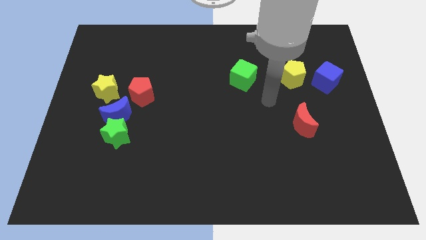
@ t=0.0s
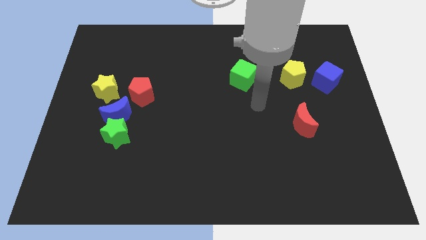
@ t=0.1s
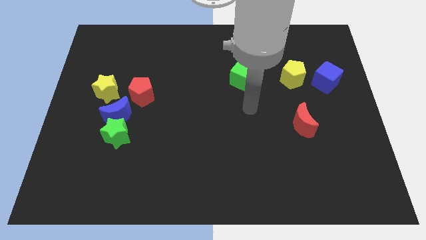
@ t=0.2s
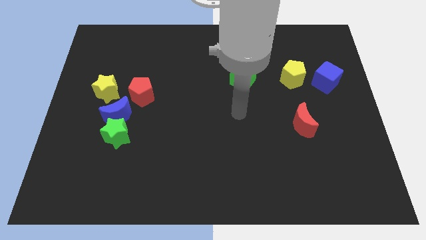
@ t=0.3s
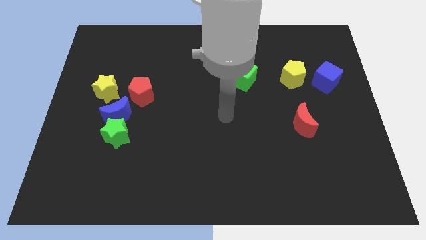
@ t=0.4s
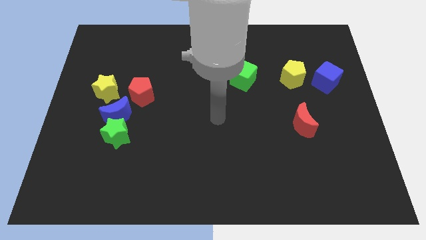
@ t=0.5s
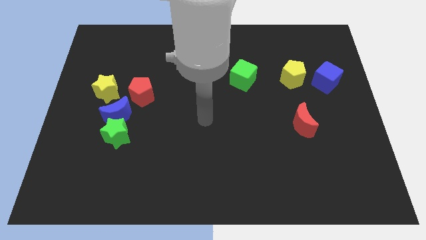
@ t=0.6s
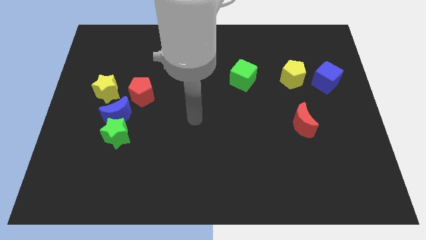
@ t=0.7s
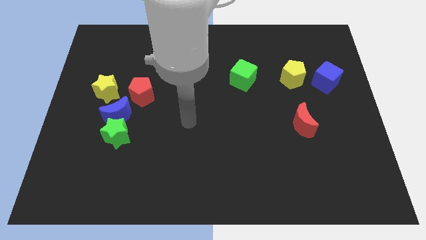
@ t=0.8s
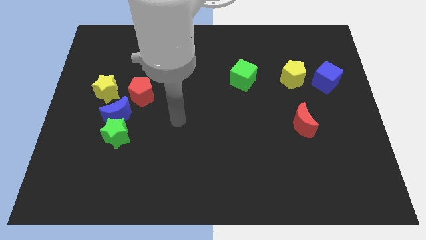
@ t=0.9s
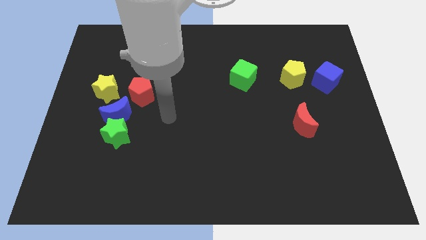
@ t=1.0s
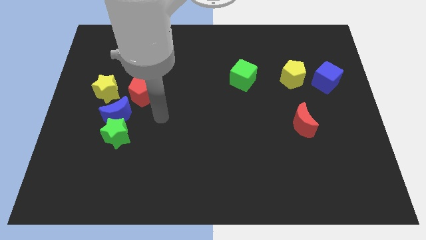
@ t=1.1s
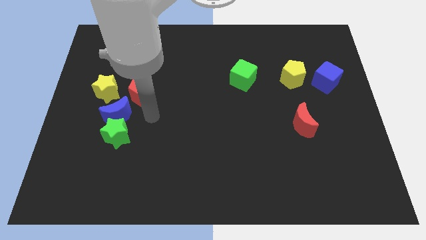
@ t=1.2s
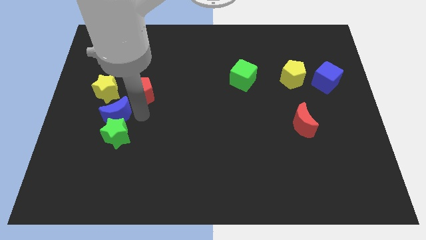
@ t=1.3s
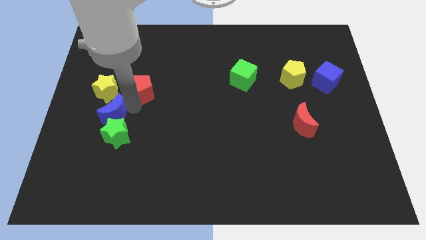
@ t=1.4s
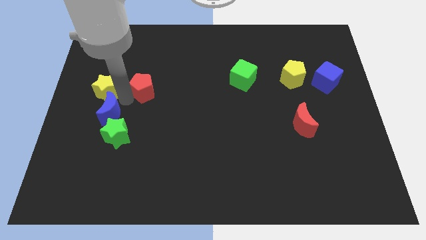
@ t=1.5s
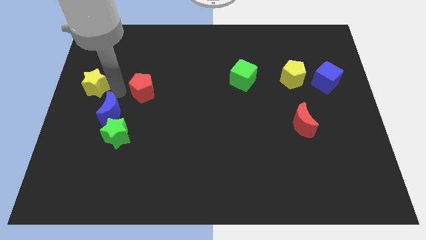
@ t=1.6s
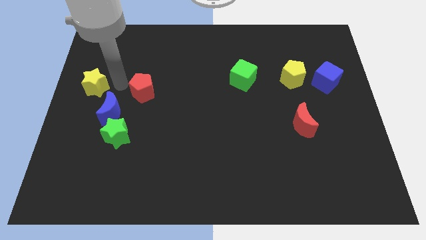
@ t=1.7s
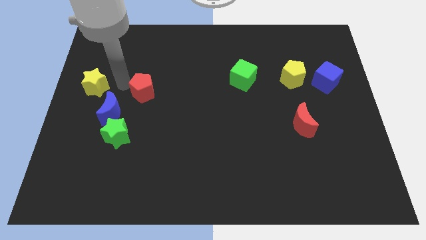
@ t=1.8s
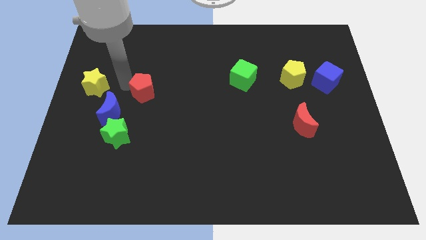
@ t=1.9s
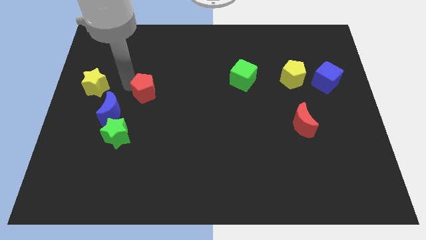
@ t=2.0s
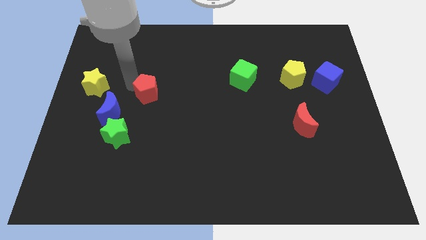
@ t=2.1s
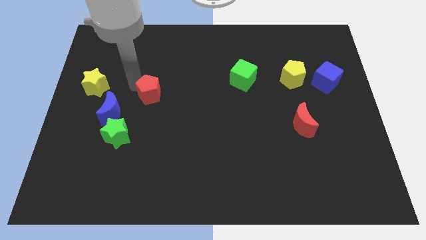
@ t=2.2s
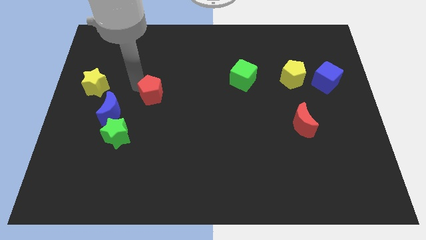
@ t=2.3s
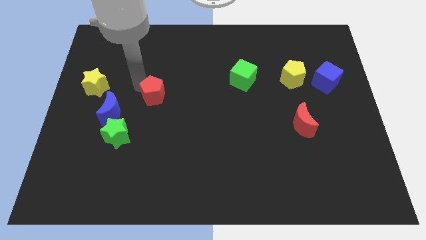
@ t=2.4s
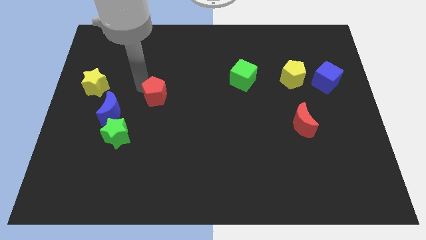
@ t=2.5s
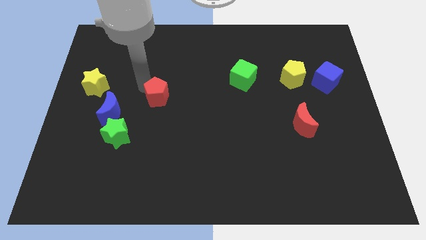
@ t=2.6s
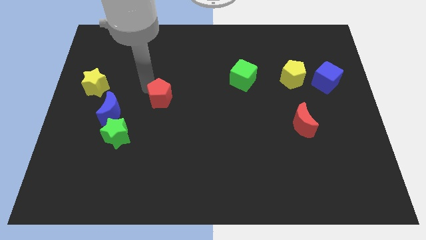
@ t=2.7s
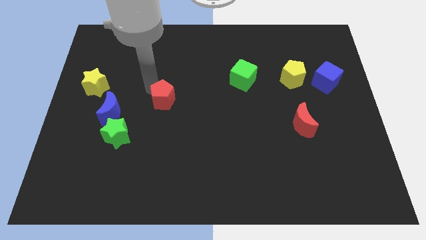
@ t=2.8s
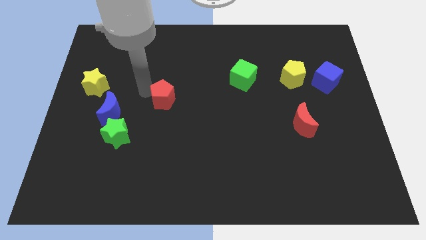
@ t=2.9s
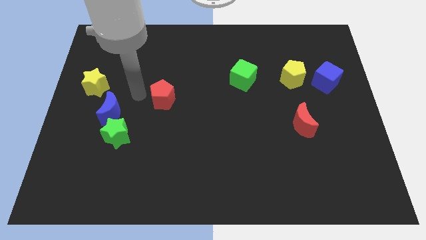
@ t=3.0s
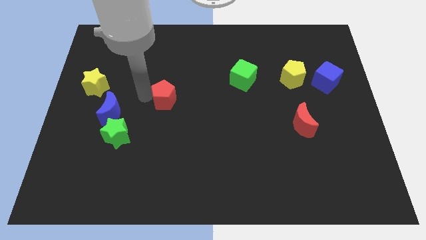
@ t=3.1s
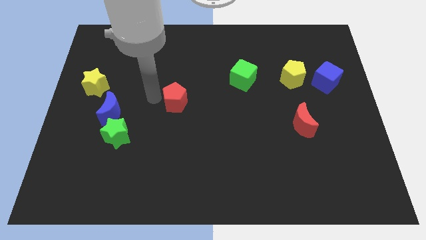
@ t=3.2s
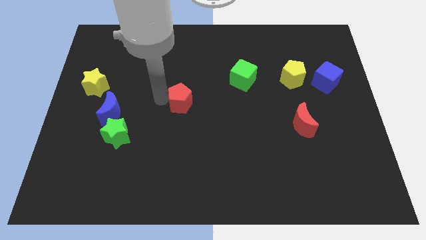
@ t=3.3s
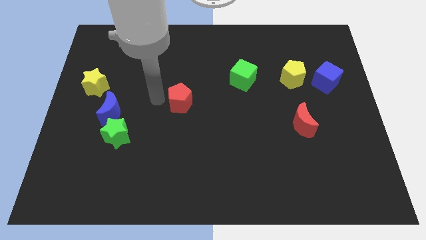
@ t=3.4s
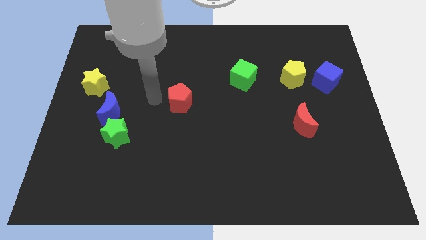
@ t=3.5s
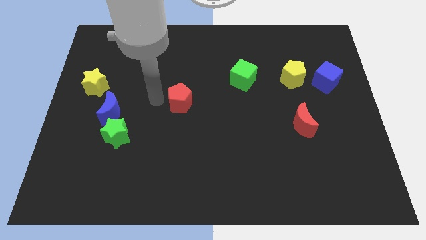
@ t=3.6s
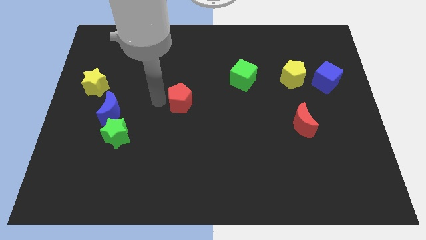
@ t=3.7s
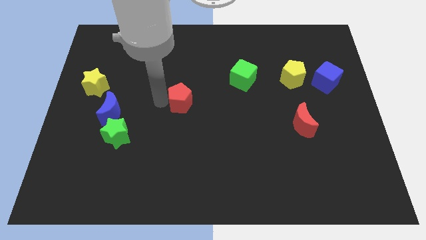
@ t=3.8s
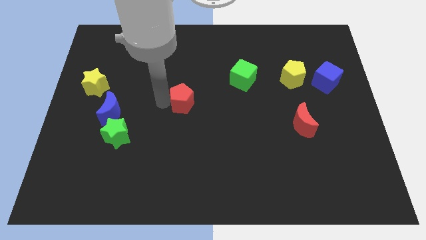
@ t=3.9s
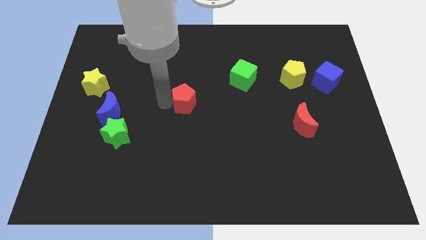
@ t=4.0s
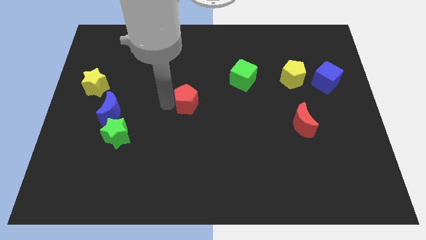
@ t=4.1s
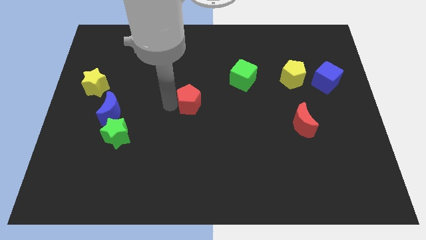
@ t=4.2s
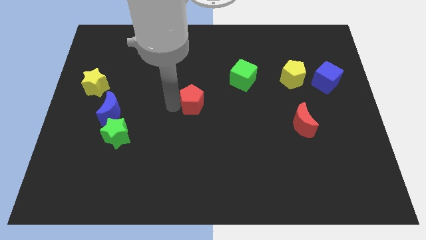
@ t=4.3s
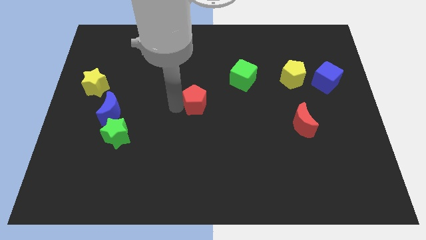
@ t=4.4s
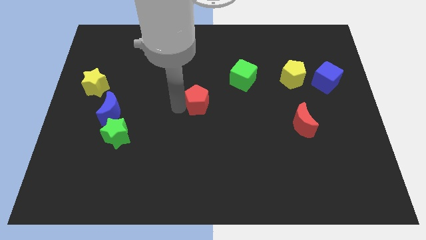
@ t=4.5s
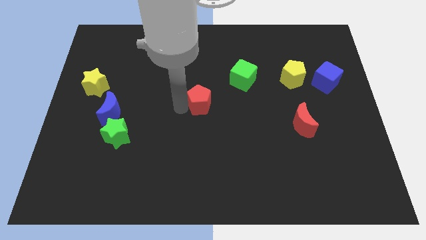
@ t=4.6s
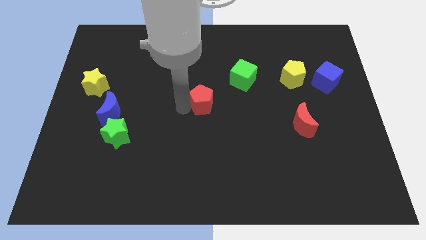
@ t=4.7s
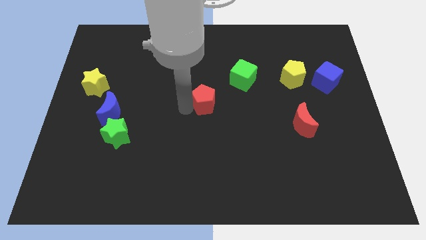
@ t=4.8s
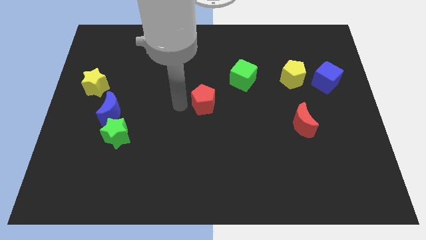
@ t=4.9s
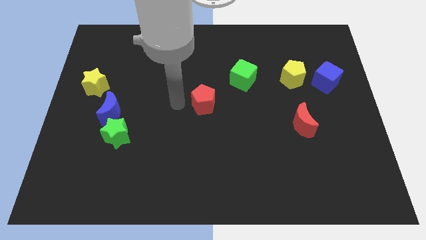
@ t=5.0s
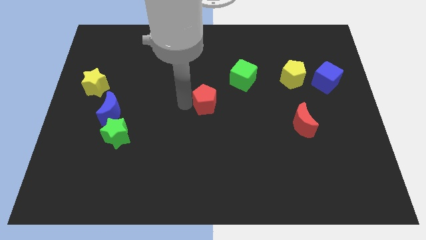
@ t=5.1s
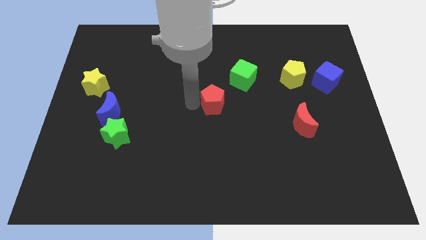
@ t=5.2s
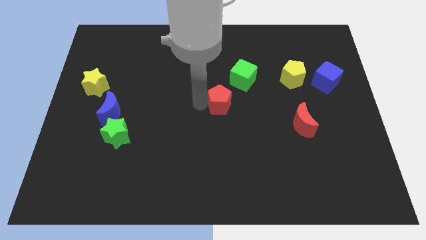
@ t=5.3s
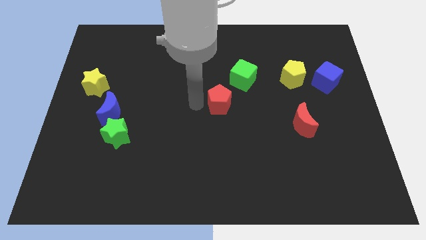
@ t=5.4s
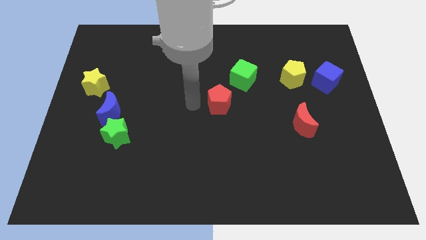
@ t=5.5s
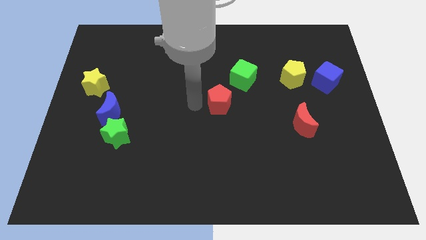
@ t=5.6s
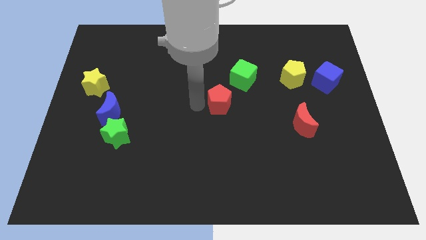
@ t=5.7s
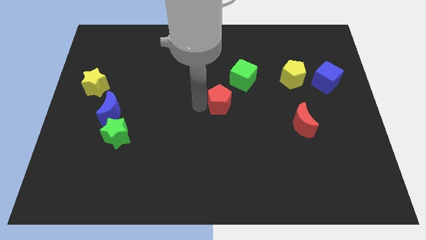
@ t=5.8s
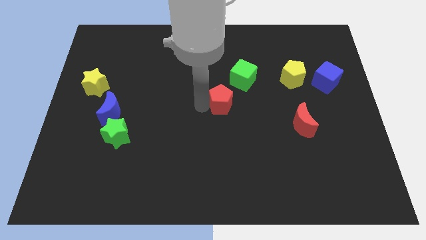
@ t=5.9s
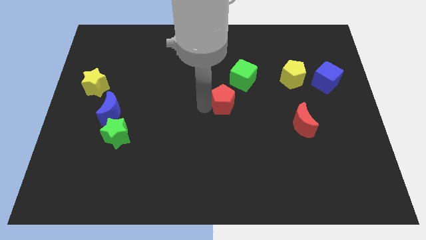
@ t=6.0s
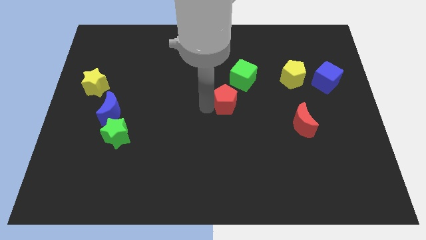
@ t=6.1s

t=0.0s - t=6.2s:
push the red pentagon to the right

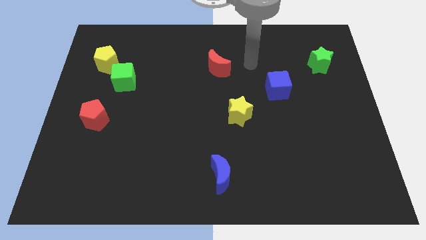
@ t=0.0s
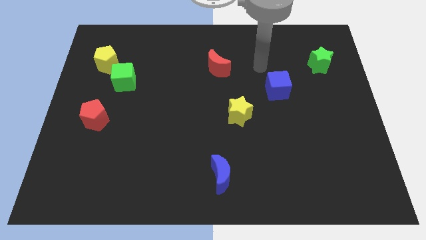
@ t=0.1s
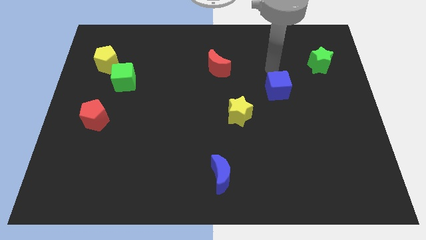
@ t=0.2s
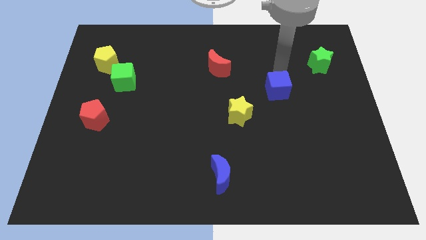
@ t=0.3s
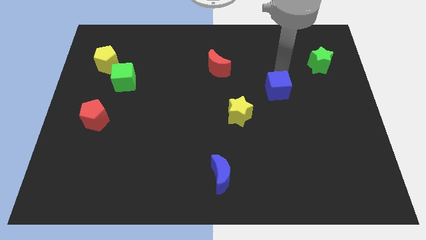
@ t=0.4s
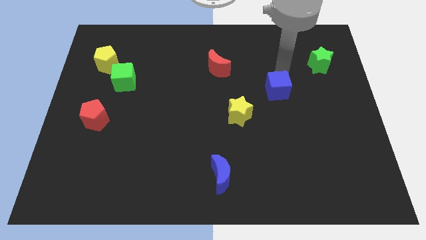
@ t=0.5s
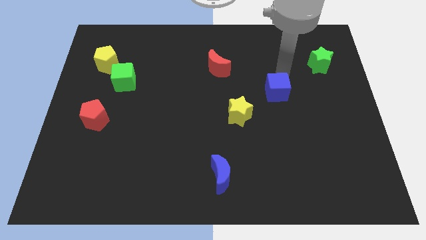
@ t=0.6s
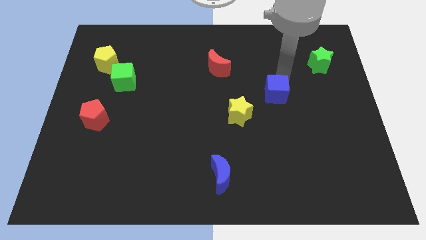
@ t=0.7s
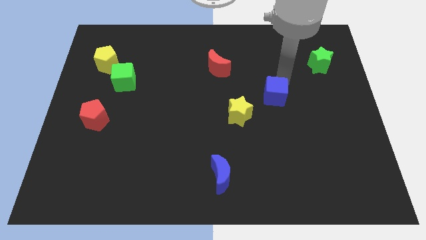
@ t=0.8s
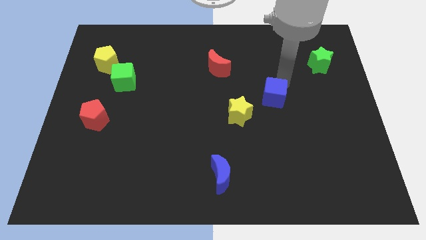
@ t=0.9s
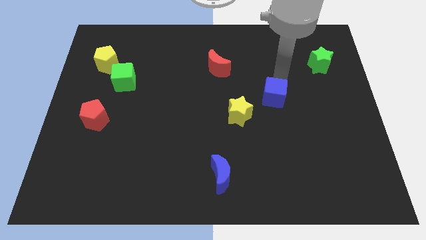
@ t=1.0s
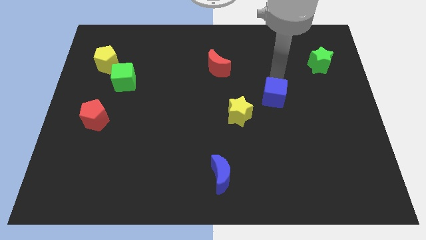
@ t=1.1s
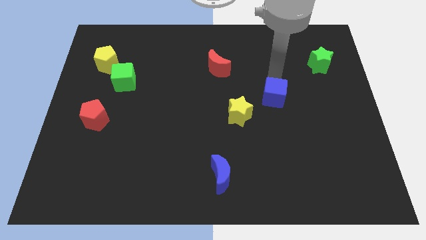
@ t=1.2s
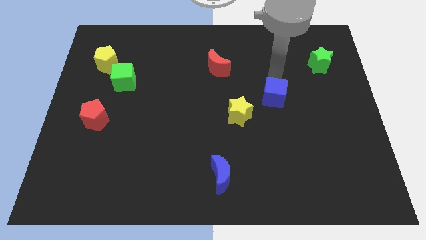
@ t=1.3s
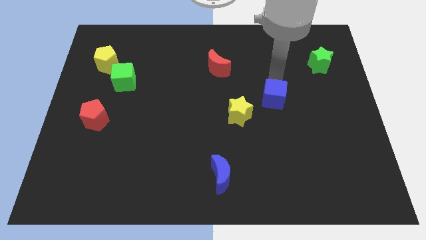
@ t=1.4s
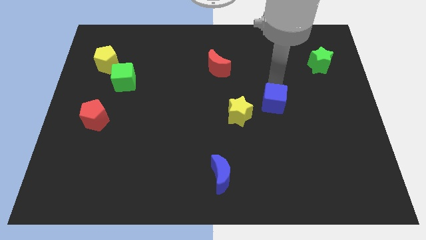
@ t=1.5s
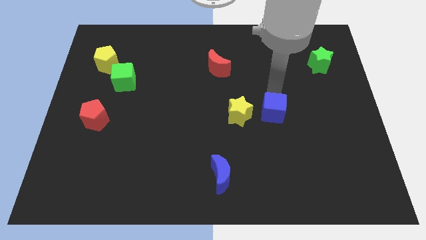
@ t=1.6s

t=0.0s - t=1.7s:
slightly push the blue cube down

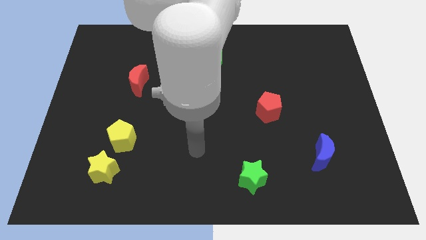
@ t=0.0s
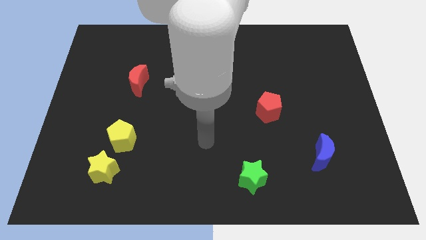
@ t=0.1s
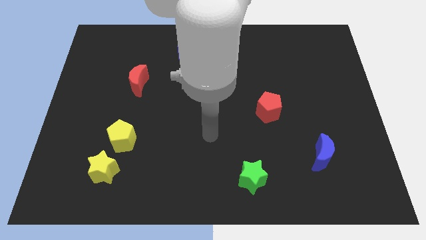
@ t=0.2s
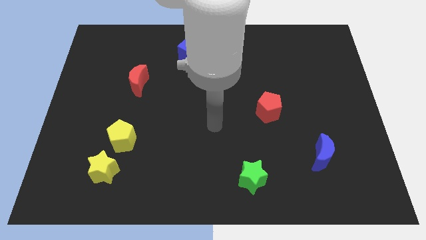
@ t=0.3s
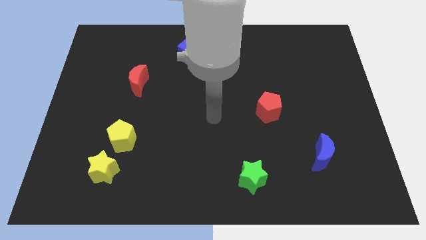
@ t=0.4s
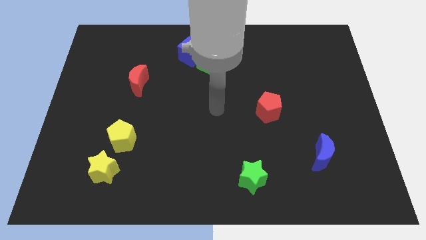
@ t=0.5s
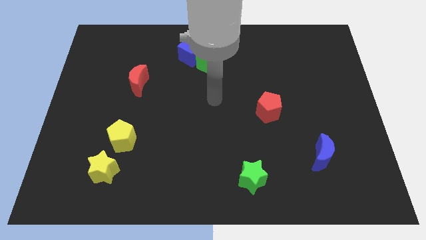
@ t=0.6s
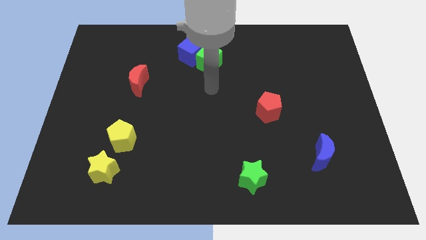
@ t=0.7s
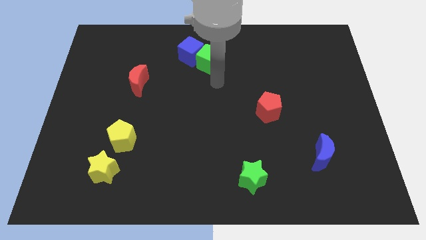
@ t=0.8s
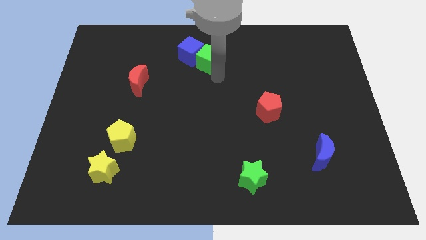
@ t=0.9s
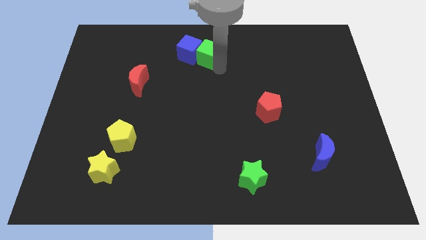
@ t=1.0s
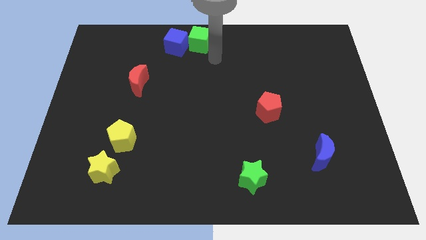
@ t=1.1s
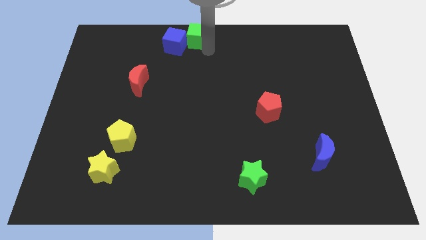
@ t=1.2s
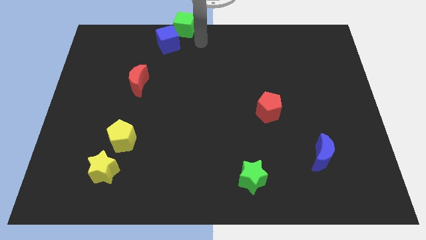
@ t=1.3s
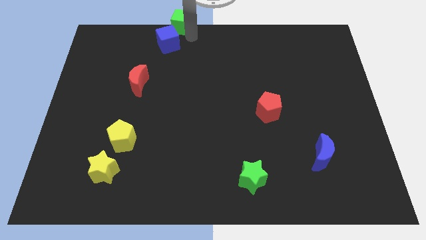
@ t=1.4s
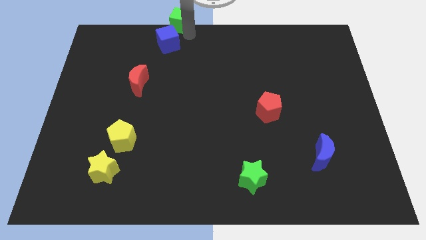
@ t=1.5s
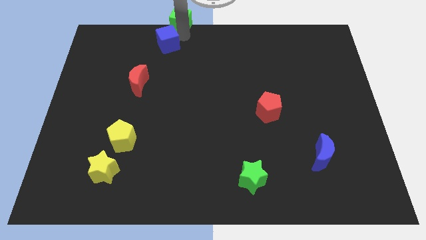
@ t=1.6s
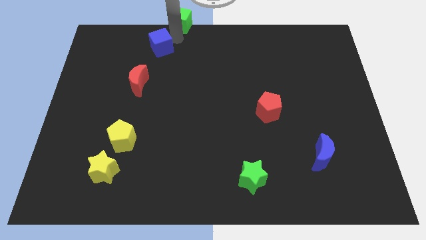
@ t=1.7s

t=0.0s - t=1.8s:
move the blue cube left a little
